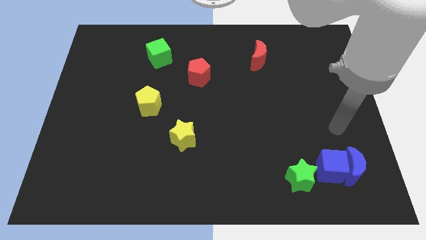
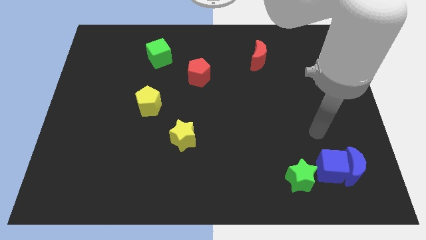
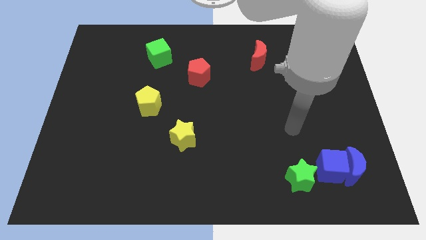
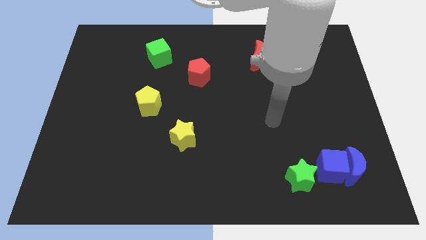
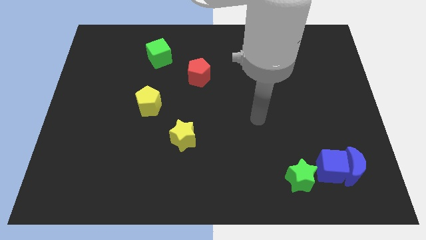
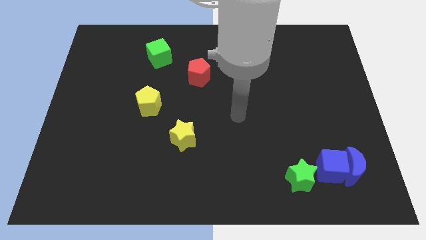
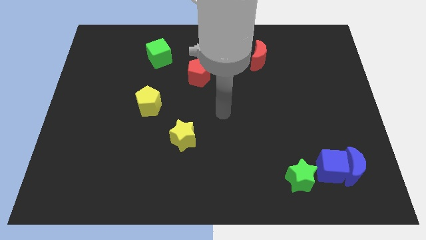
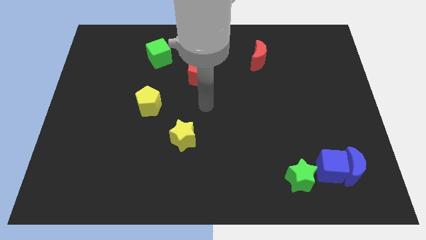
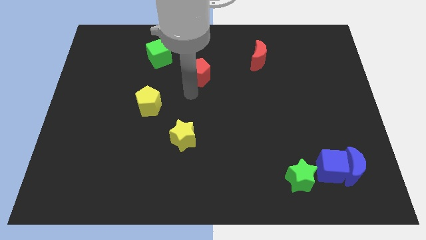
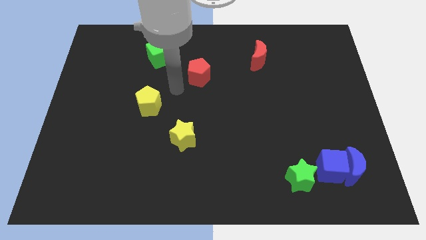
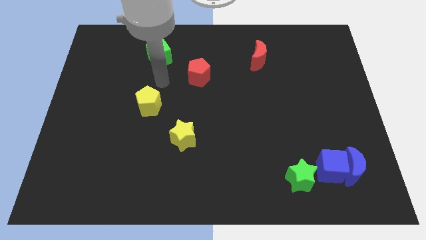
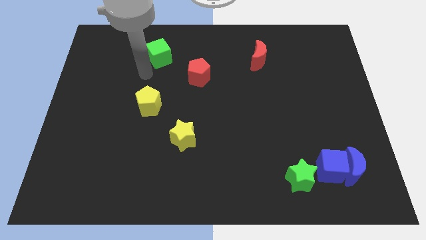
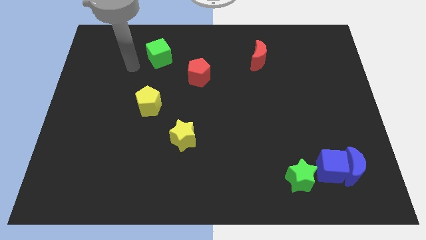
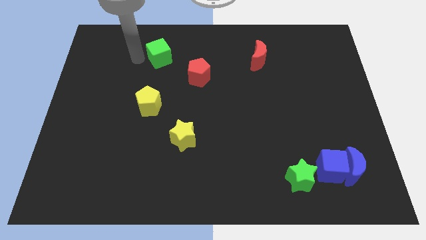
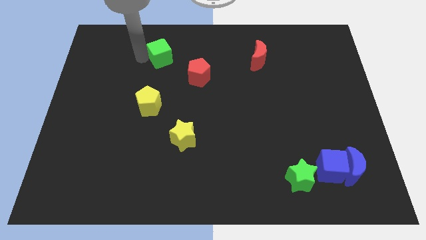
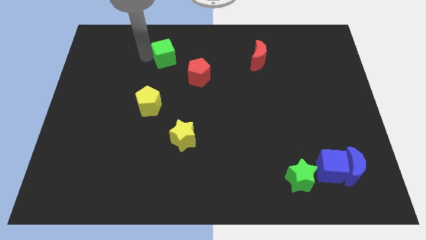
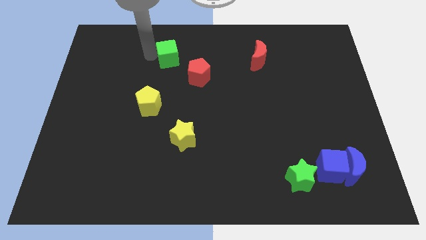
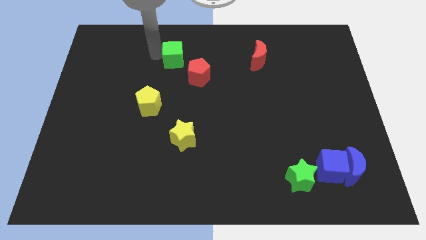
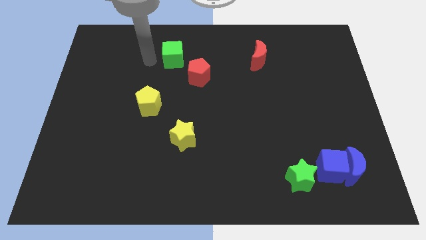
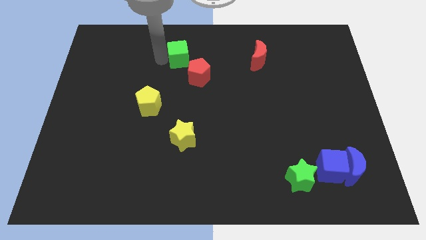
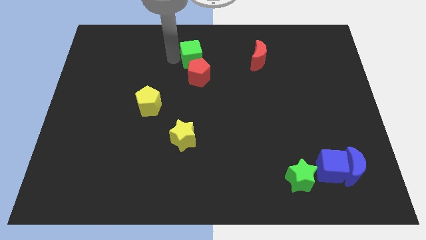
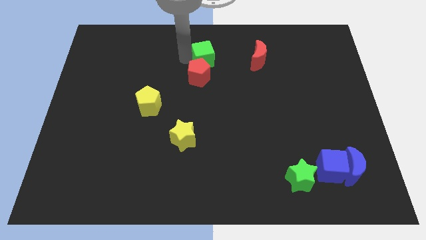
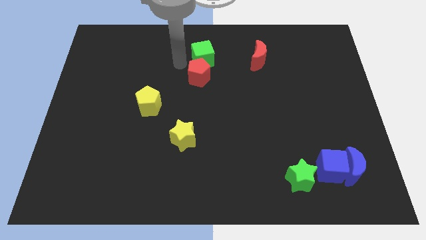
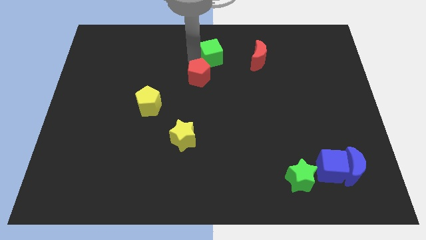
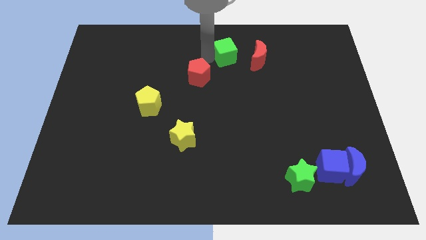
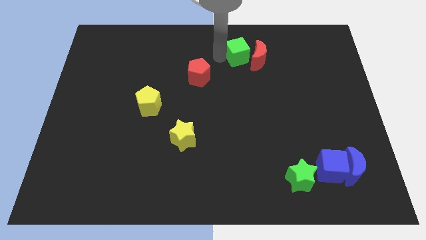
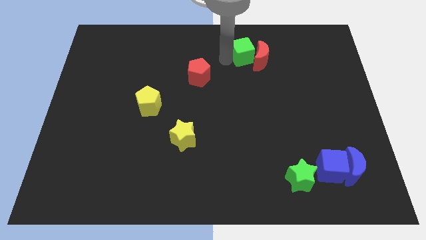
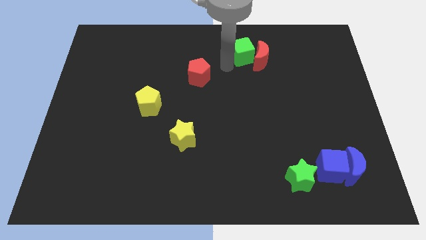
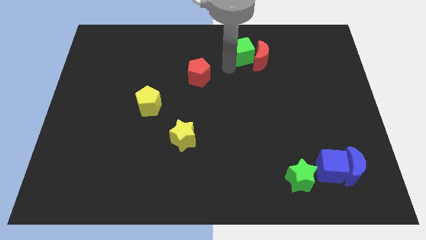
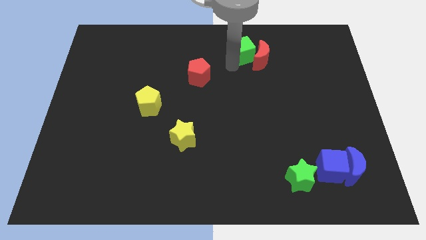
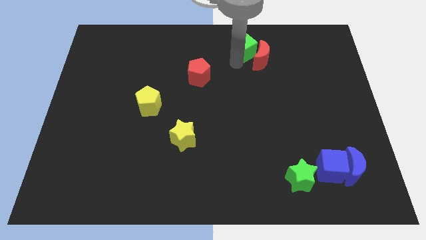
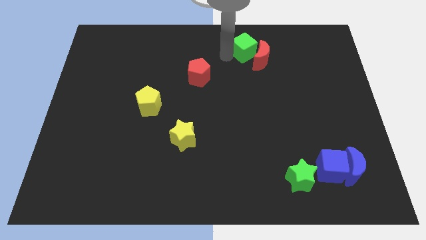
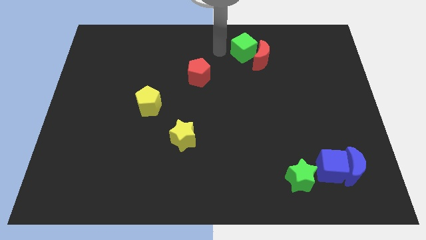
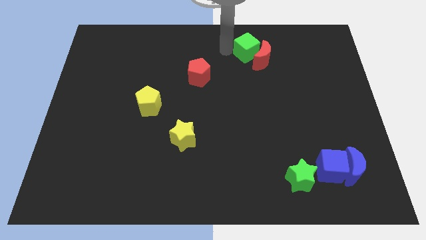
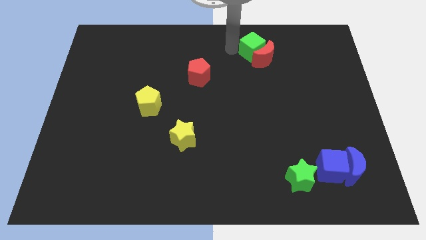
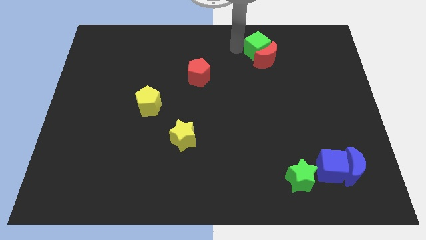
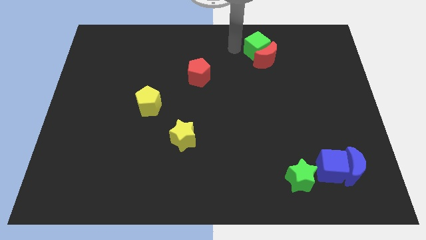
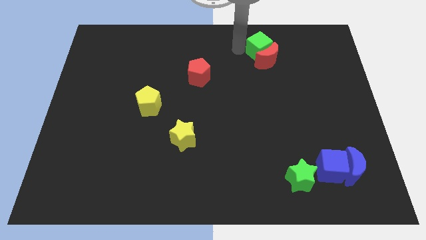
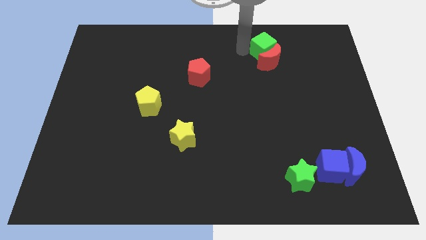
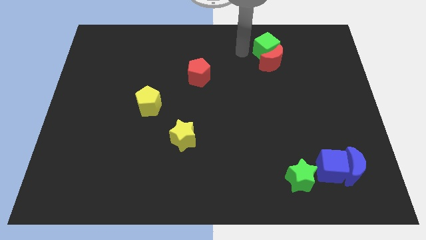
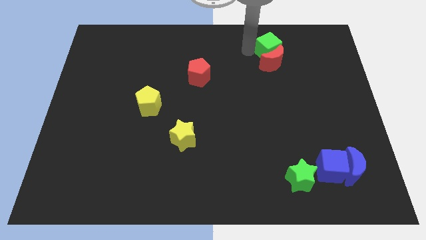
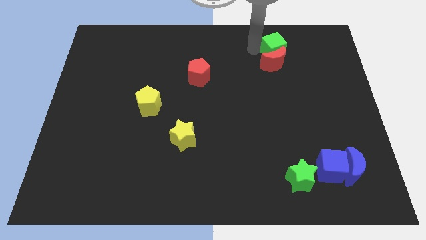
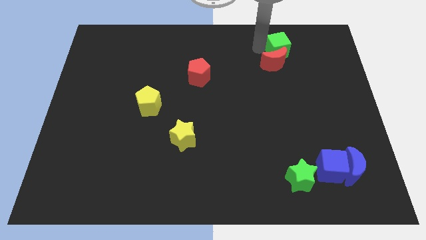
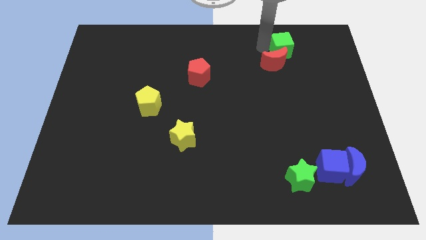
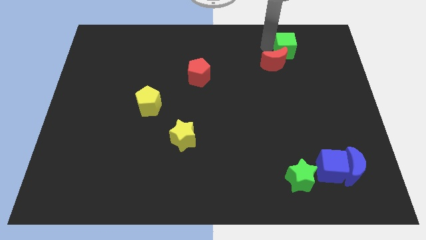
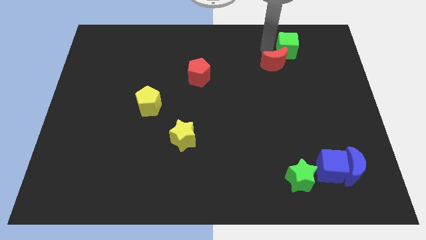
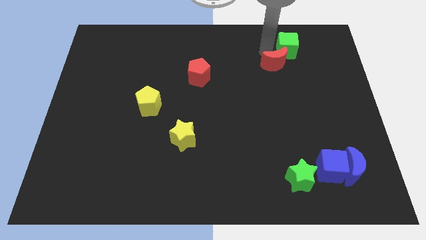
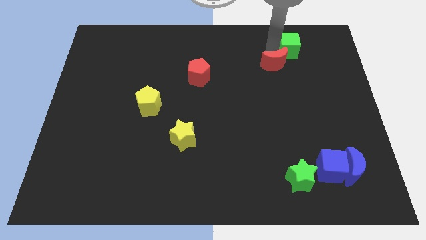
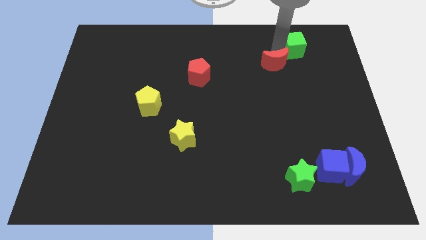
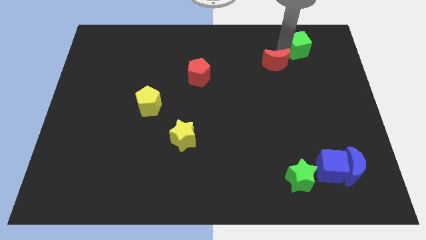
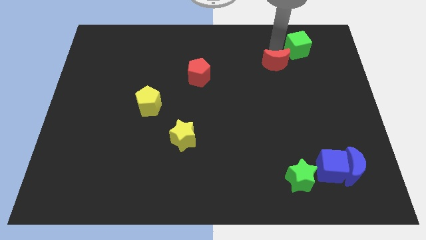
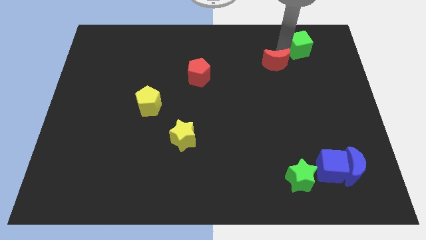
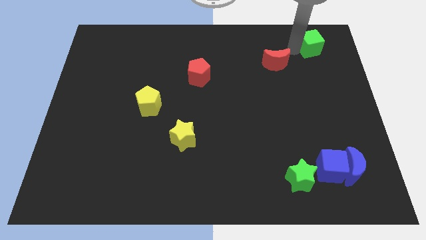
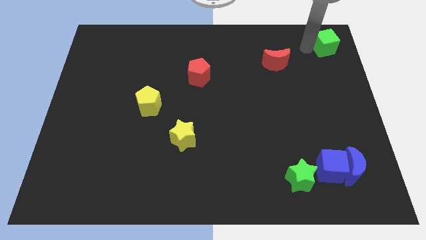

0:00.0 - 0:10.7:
put the green cube to the upper right corner

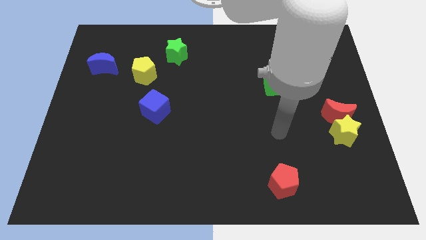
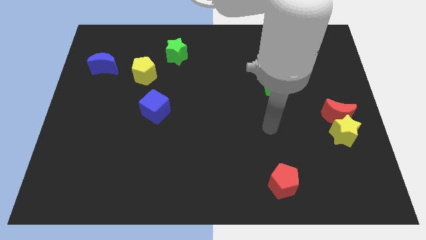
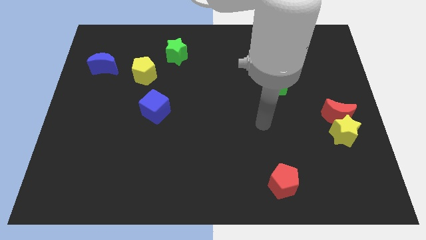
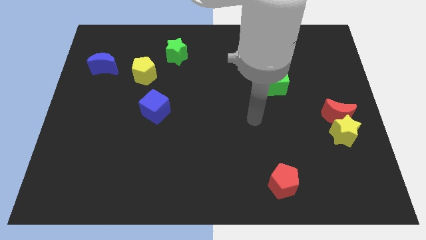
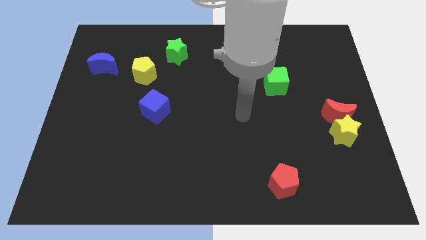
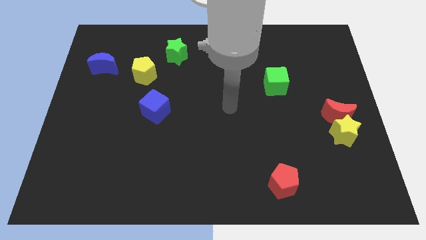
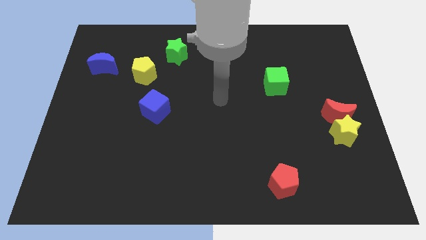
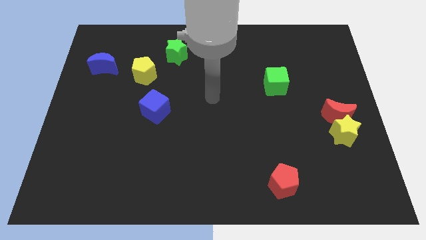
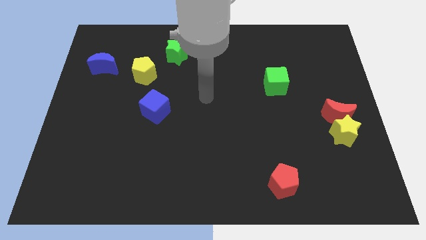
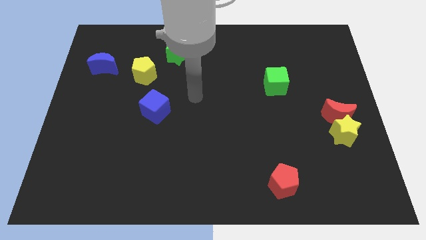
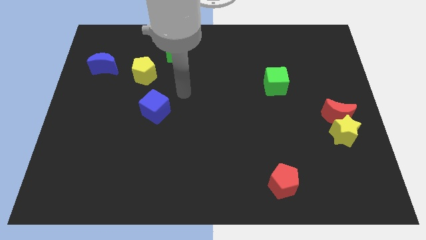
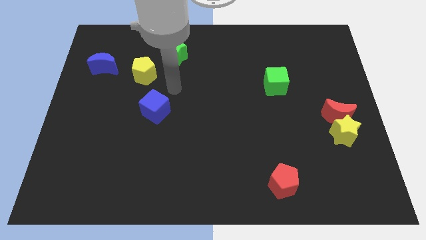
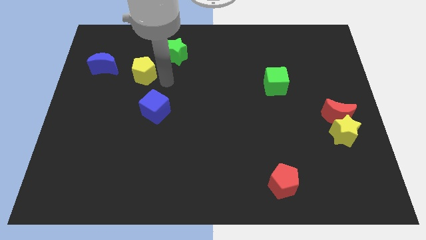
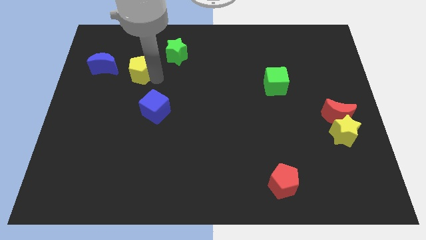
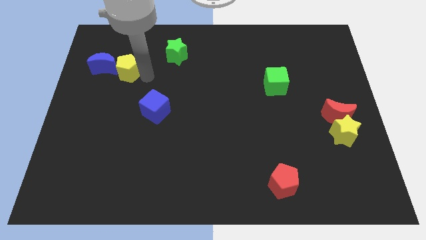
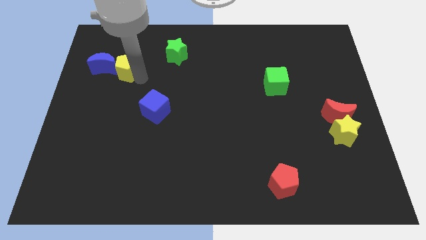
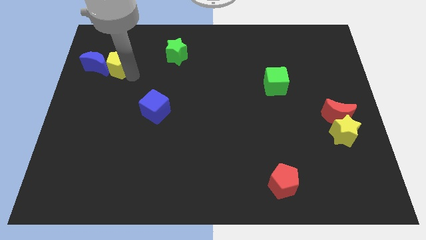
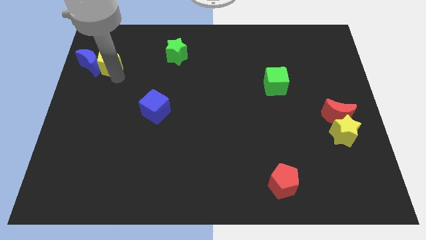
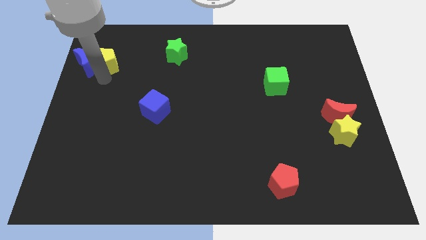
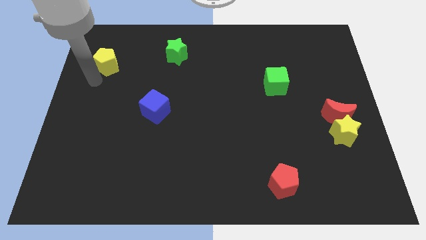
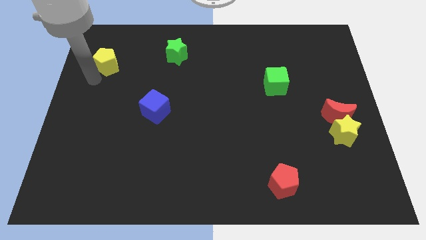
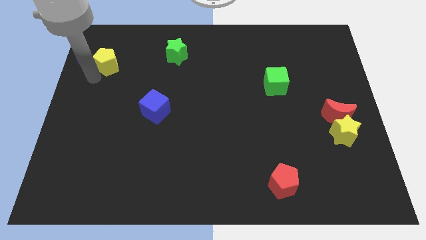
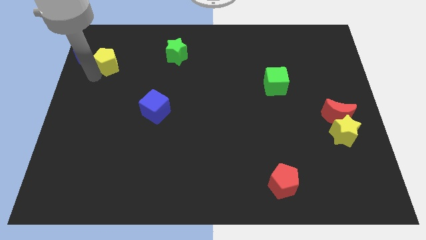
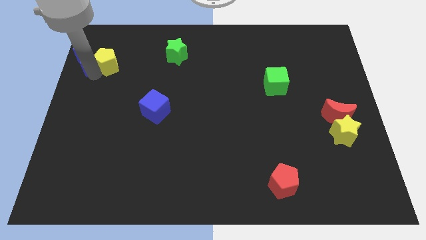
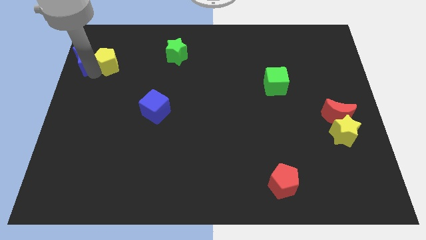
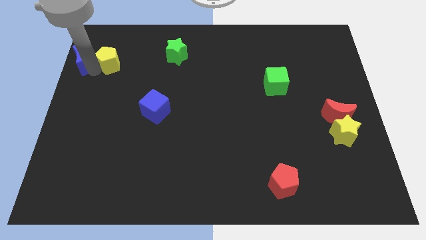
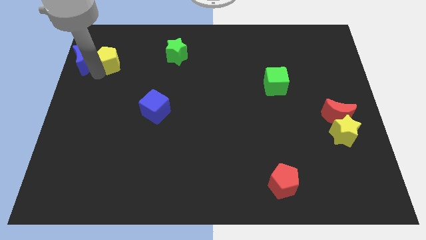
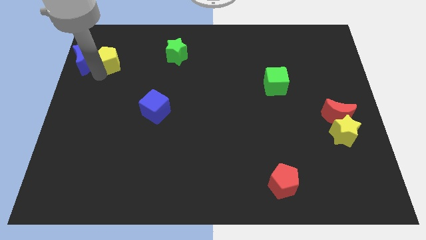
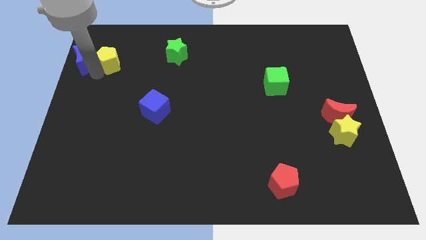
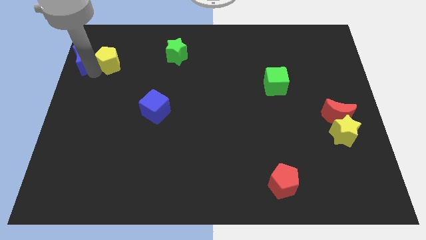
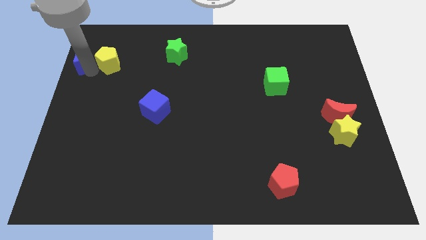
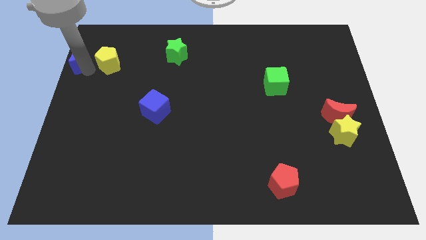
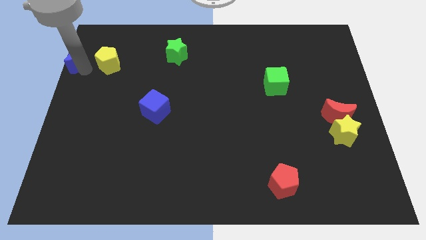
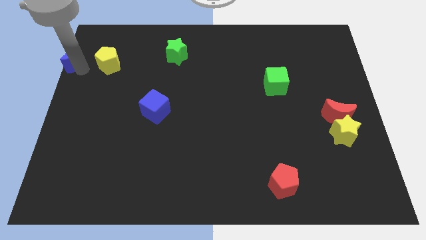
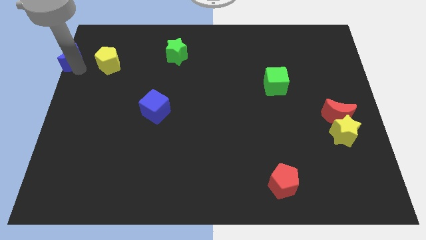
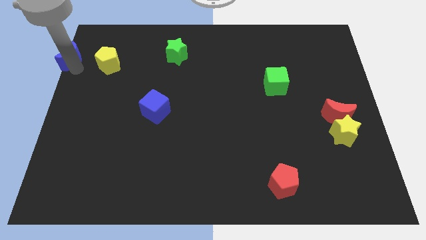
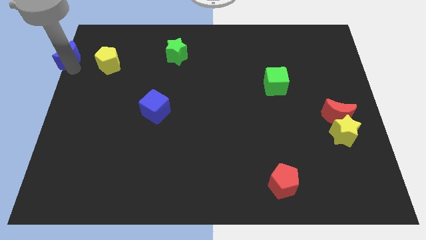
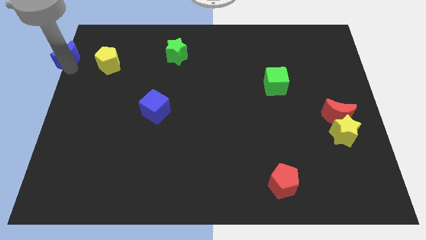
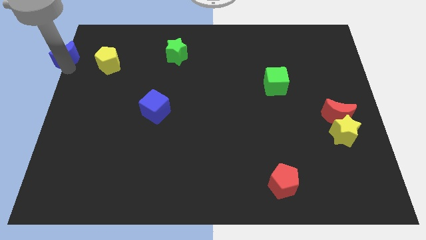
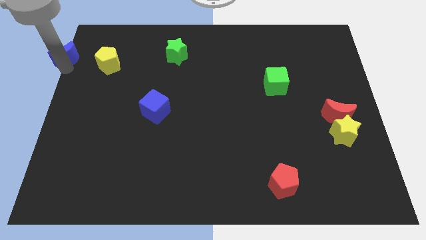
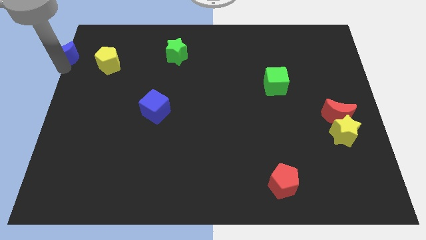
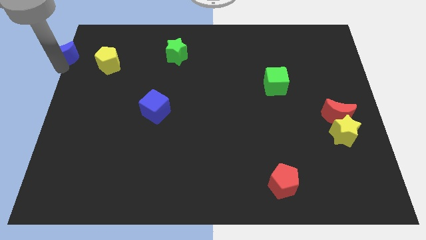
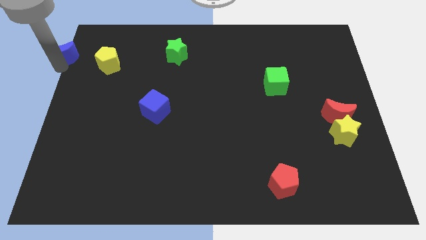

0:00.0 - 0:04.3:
push the blue moon to the upper left corner
